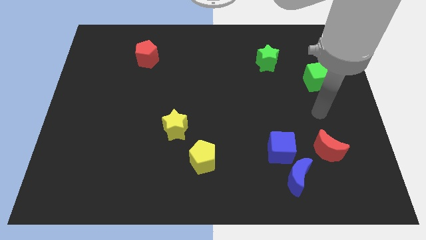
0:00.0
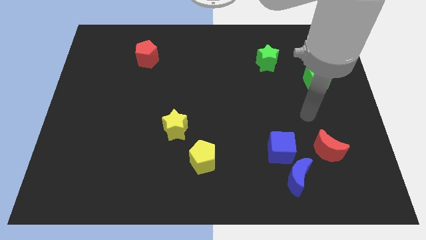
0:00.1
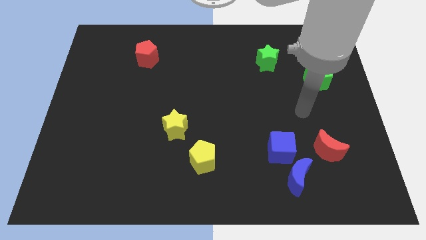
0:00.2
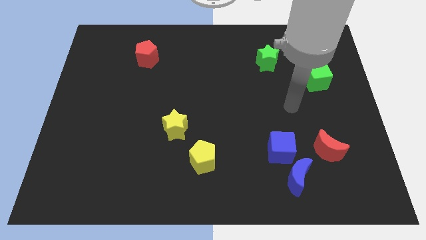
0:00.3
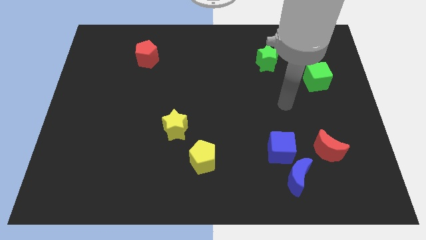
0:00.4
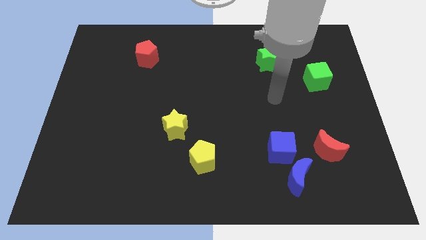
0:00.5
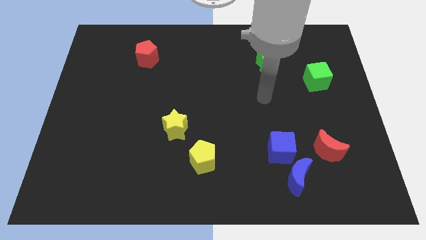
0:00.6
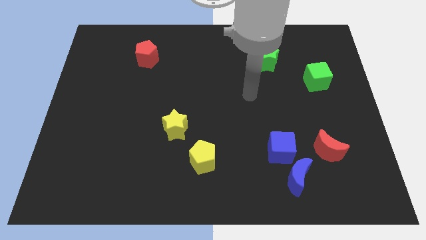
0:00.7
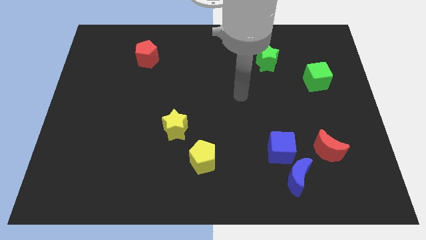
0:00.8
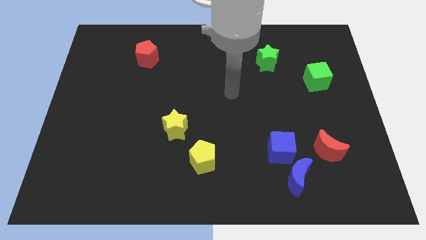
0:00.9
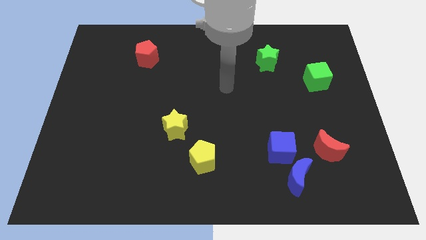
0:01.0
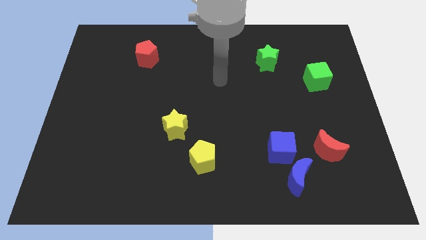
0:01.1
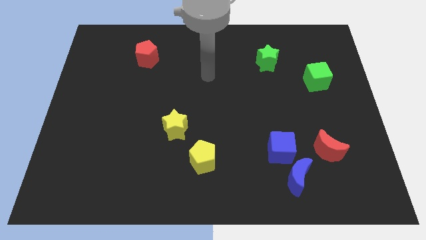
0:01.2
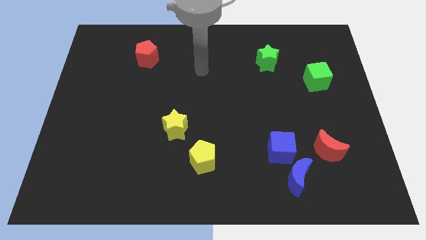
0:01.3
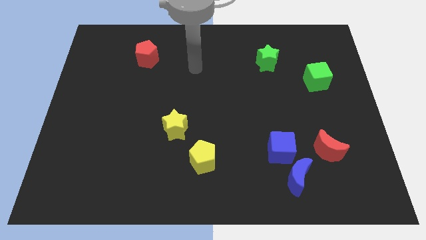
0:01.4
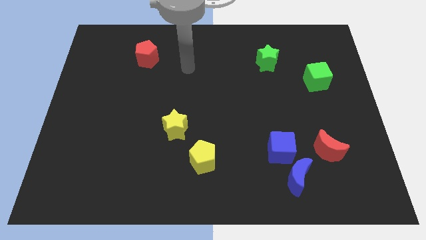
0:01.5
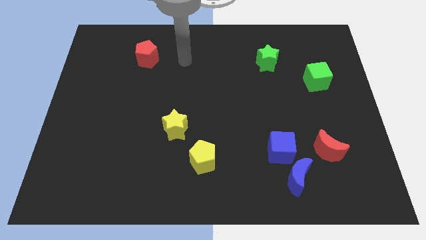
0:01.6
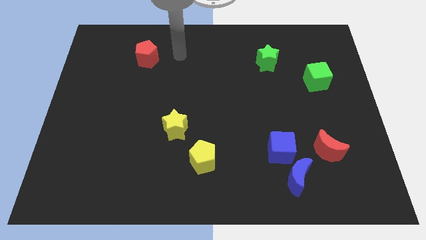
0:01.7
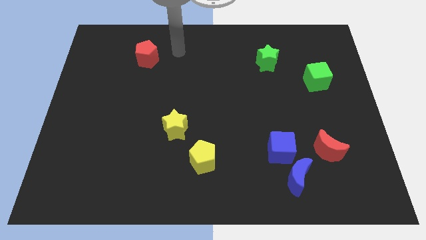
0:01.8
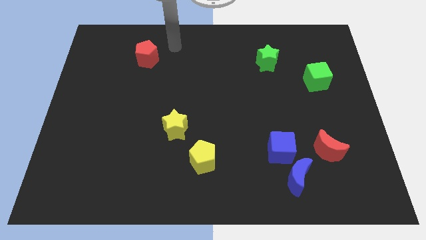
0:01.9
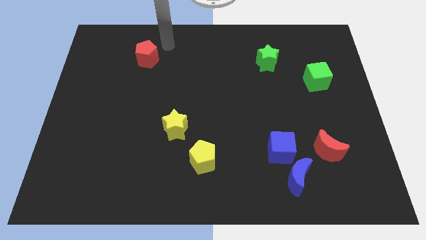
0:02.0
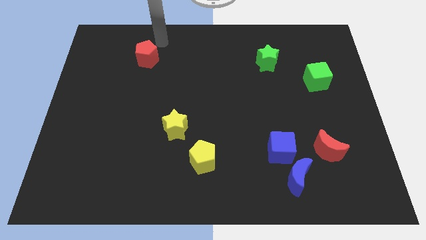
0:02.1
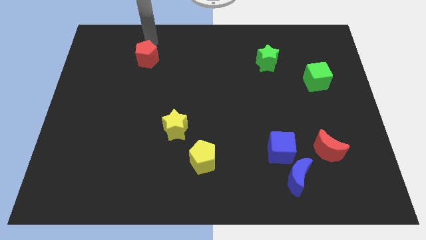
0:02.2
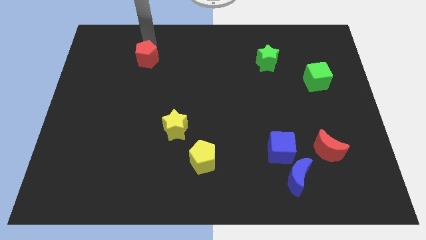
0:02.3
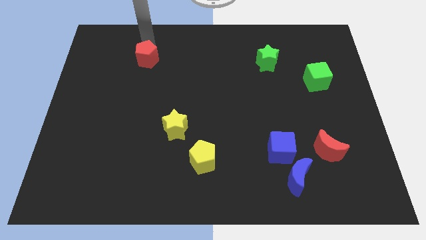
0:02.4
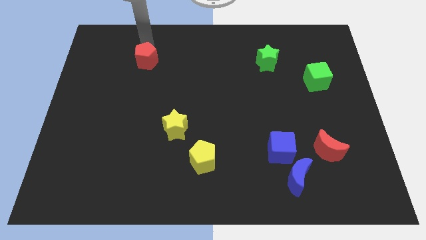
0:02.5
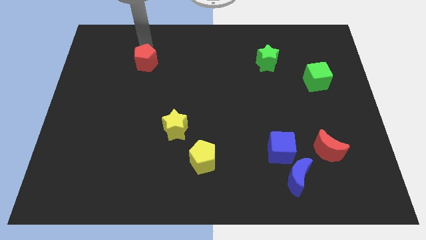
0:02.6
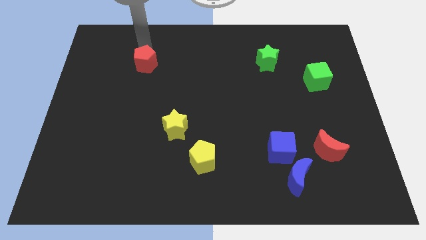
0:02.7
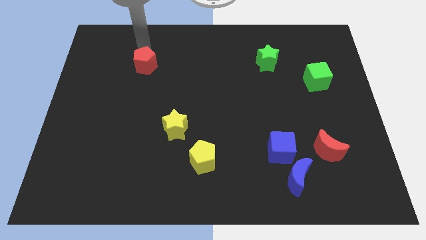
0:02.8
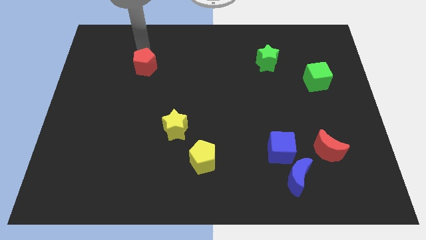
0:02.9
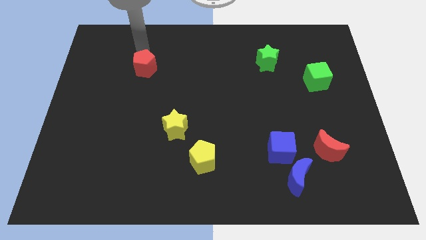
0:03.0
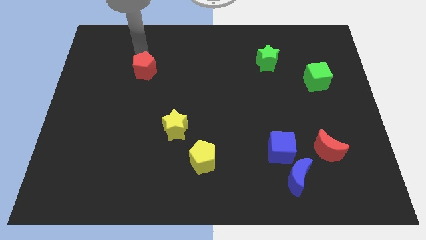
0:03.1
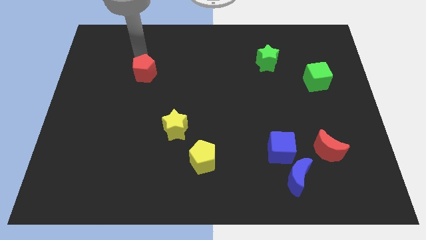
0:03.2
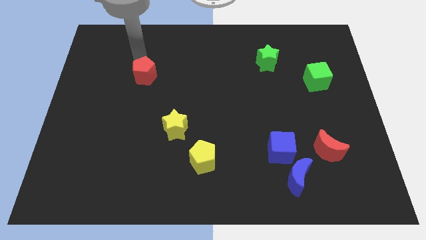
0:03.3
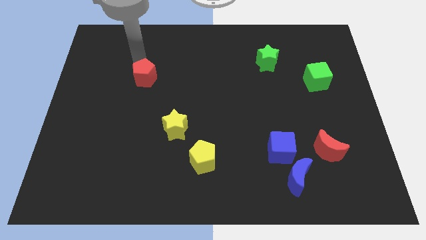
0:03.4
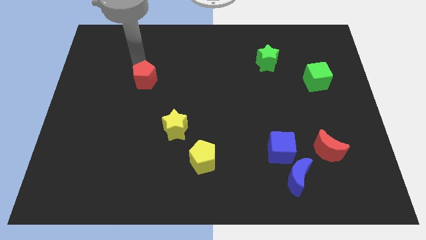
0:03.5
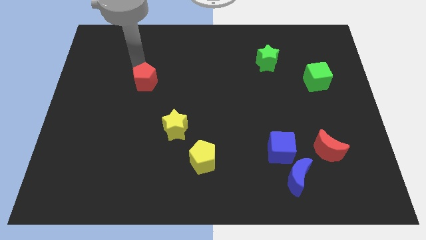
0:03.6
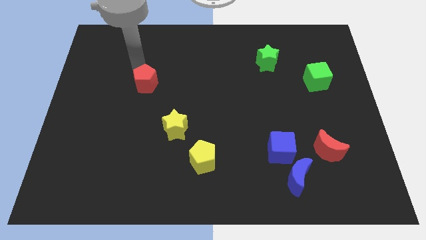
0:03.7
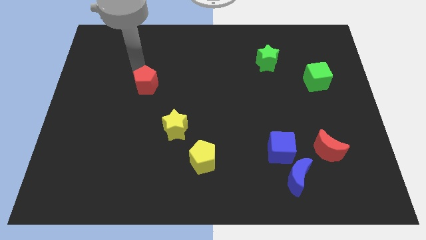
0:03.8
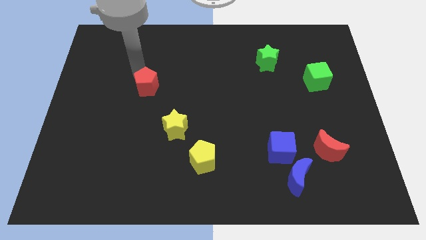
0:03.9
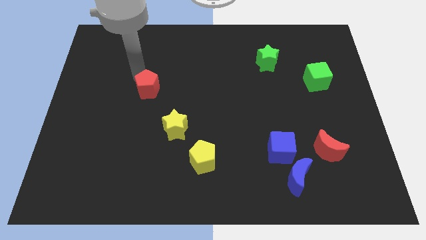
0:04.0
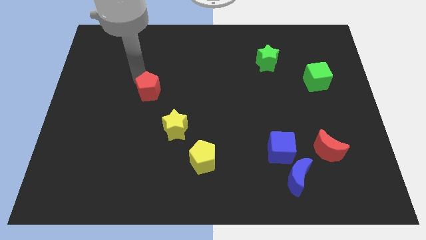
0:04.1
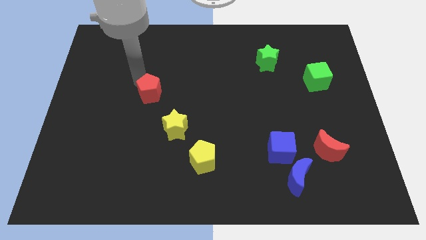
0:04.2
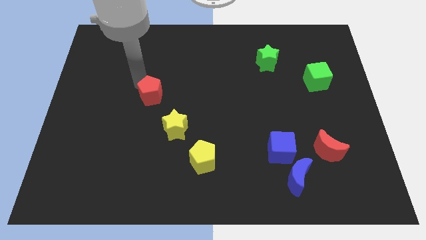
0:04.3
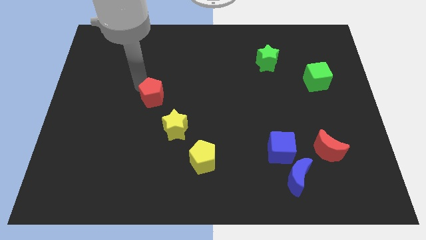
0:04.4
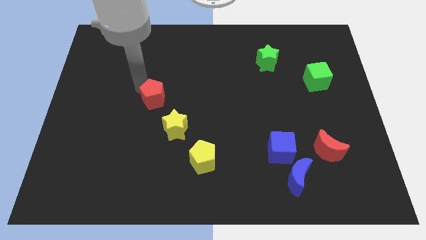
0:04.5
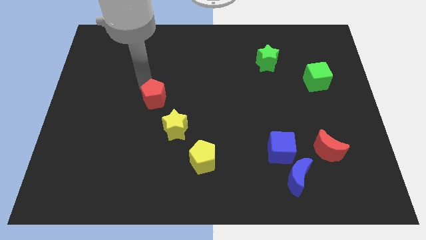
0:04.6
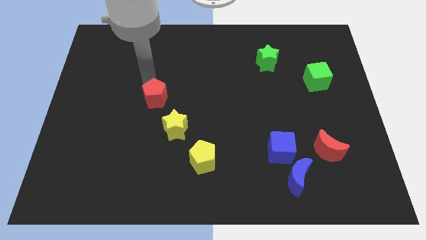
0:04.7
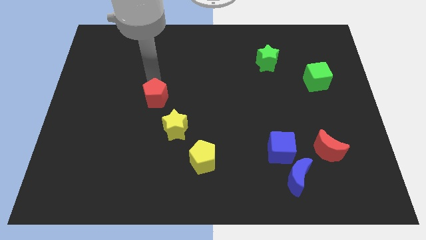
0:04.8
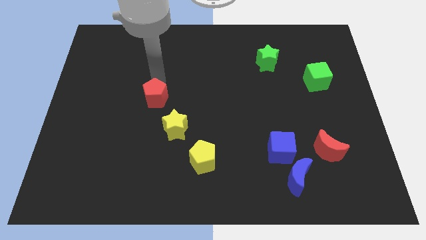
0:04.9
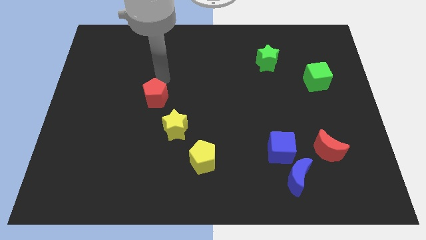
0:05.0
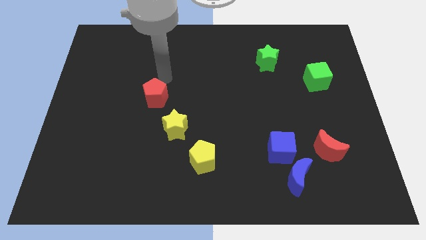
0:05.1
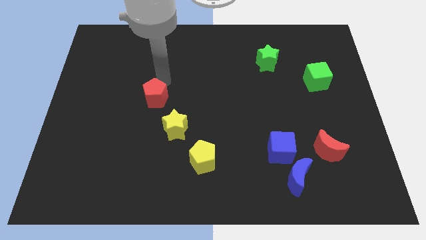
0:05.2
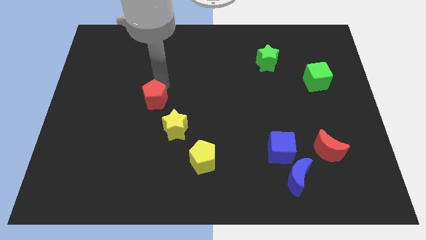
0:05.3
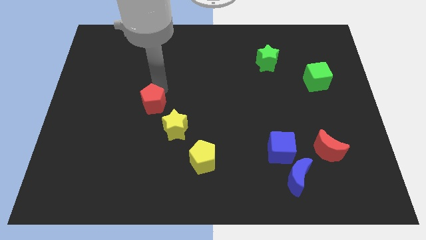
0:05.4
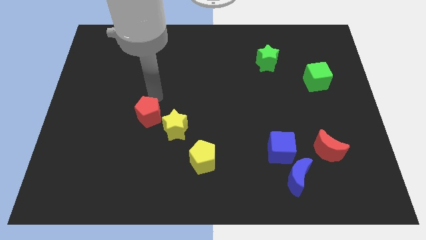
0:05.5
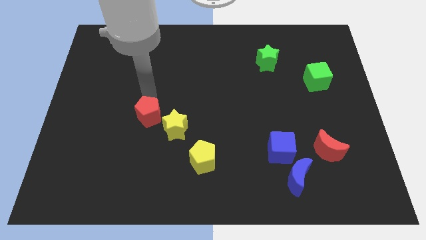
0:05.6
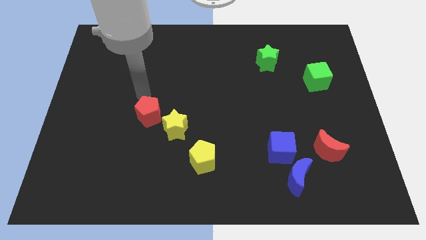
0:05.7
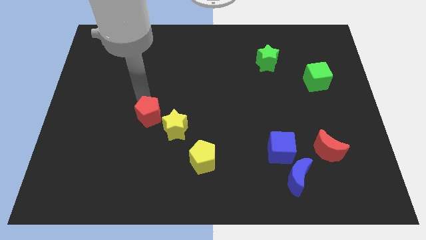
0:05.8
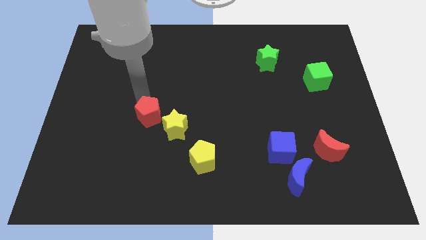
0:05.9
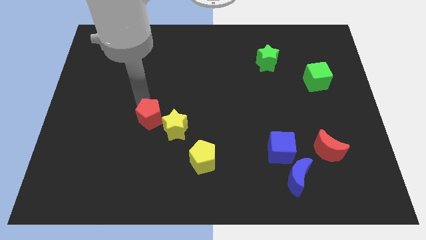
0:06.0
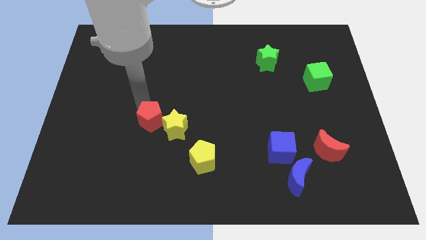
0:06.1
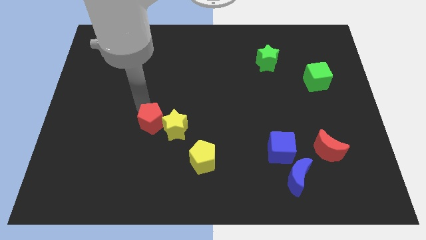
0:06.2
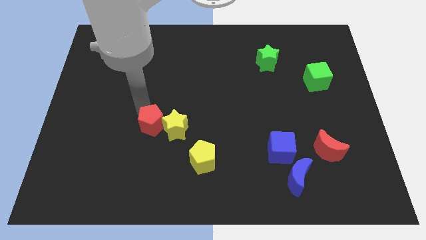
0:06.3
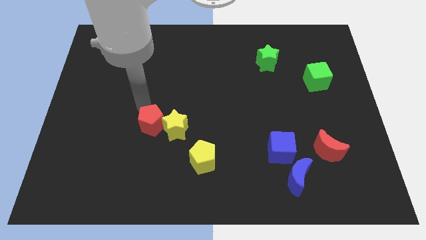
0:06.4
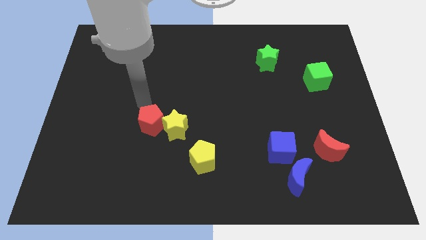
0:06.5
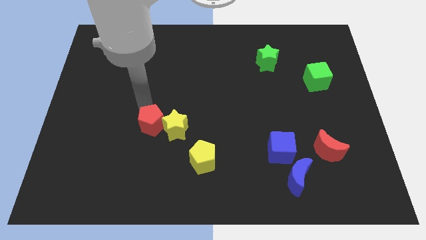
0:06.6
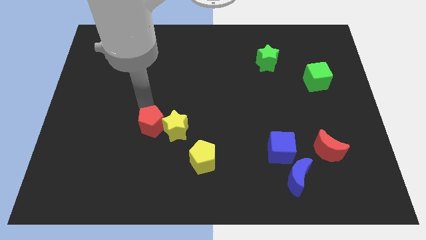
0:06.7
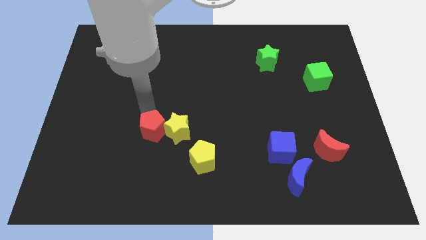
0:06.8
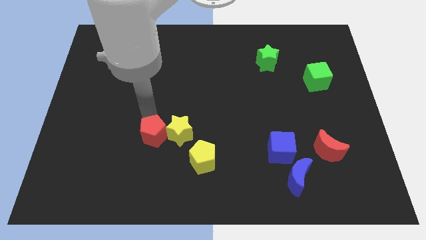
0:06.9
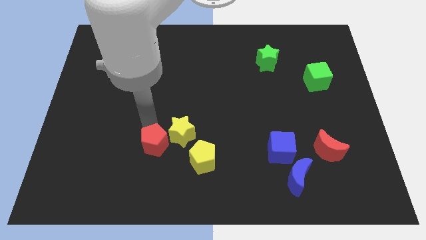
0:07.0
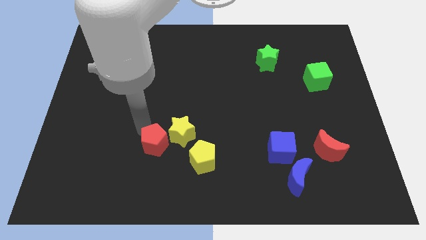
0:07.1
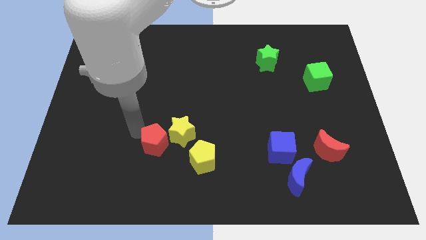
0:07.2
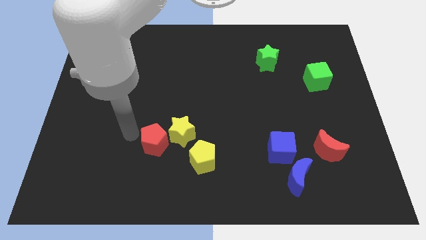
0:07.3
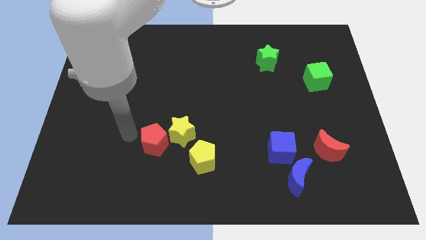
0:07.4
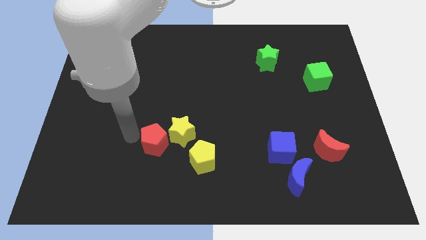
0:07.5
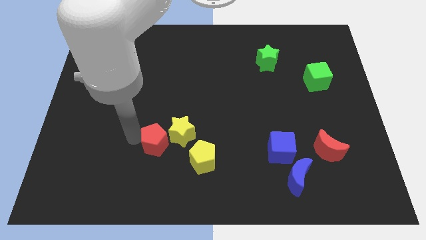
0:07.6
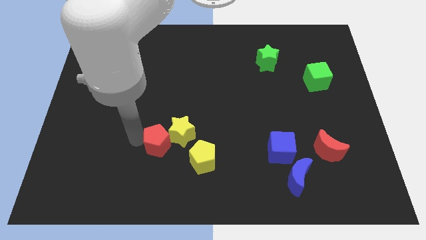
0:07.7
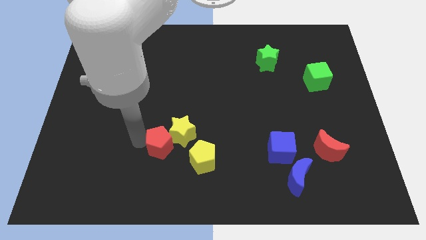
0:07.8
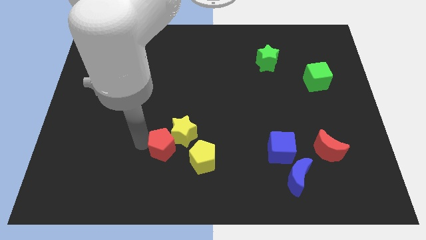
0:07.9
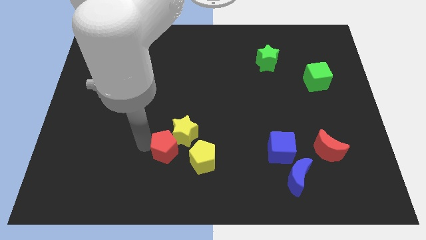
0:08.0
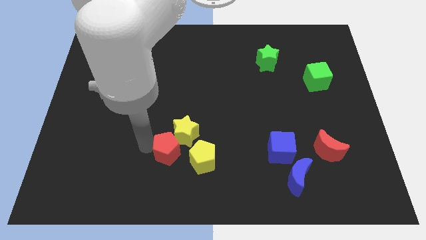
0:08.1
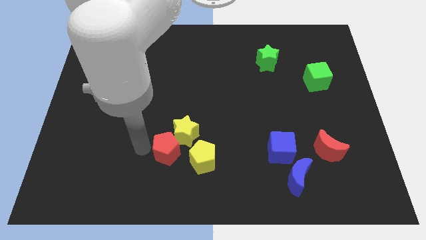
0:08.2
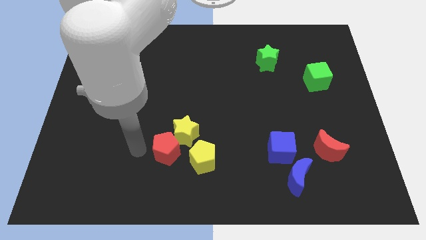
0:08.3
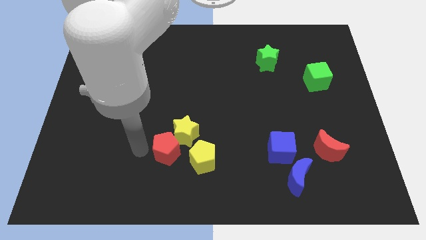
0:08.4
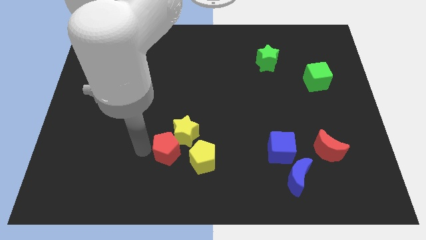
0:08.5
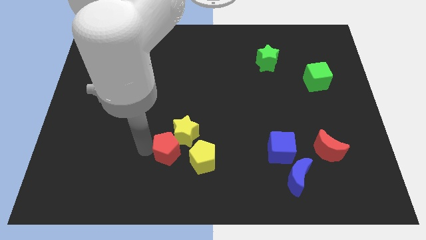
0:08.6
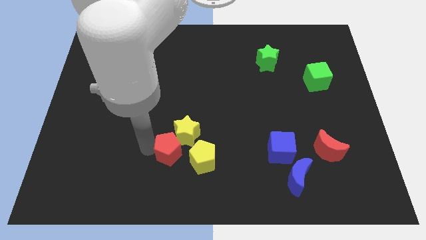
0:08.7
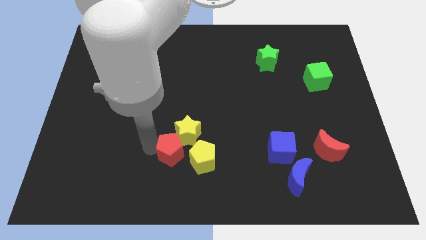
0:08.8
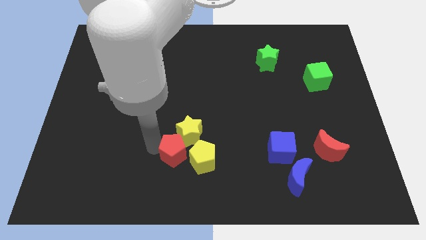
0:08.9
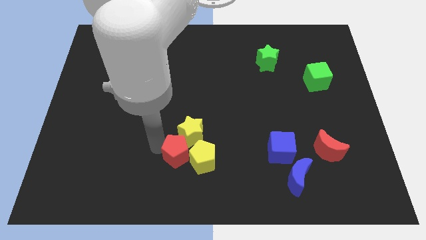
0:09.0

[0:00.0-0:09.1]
push the red pentagon close to the yellow pentagon
